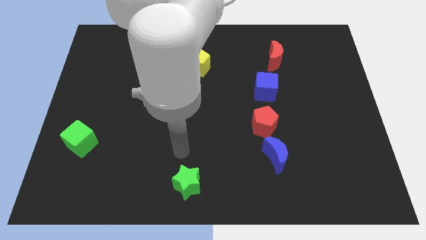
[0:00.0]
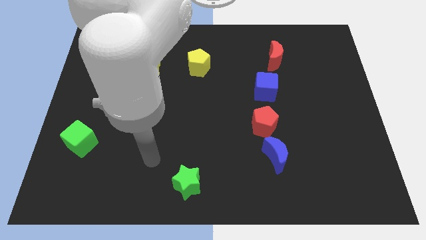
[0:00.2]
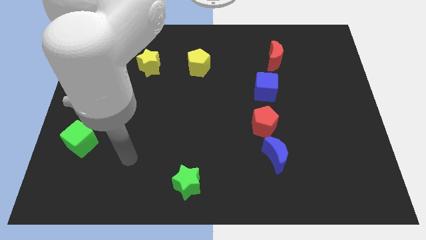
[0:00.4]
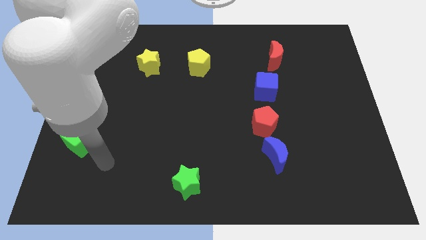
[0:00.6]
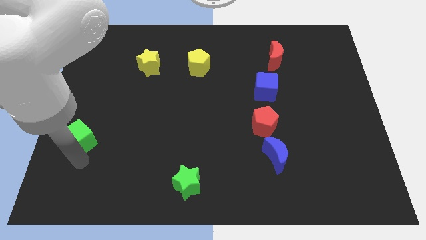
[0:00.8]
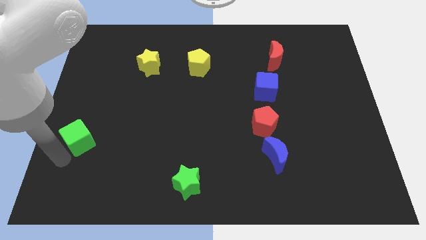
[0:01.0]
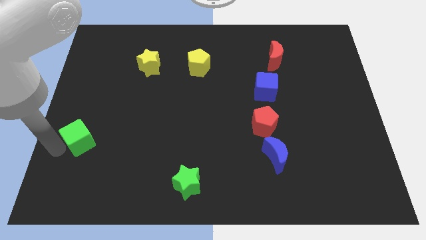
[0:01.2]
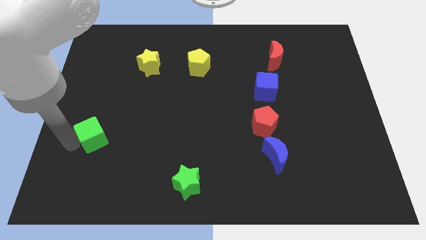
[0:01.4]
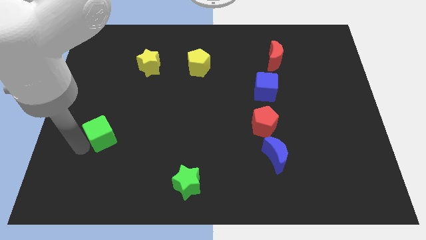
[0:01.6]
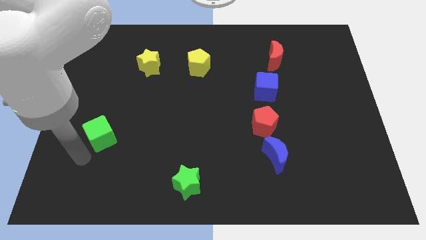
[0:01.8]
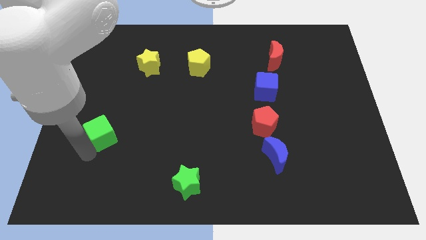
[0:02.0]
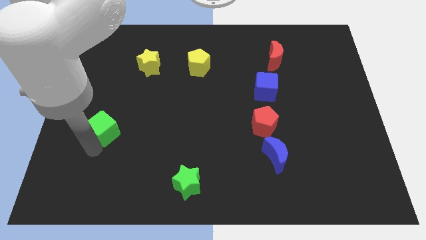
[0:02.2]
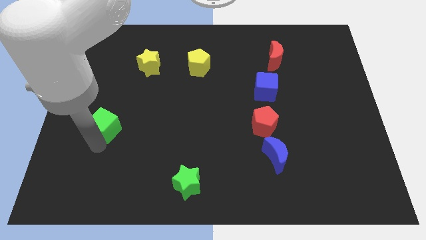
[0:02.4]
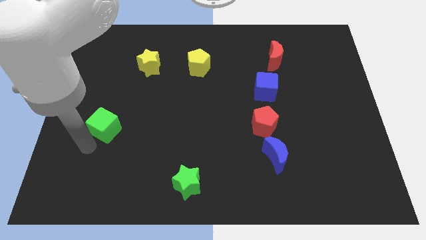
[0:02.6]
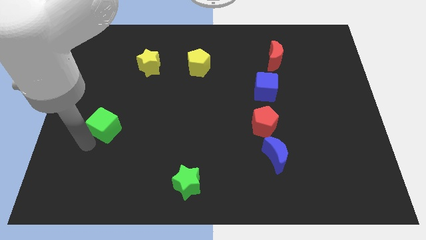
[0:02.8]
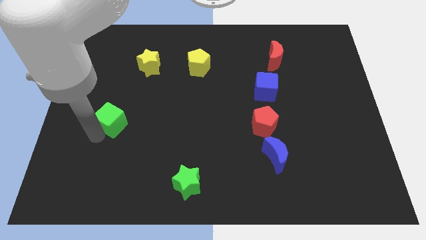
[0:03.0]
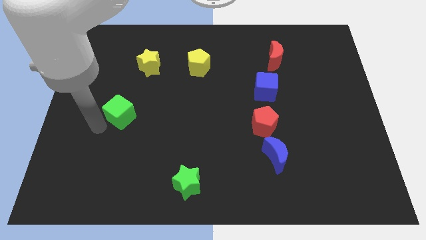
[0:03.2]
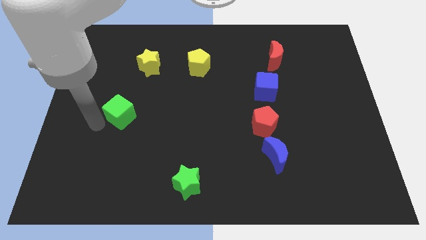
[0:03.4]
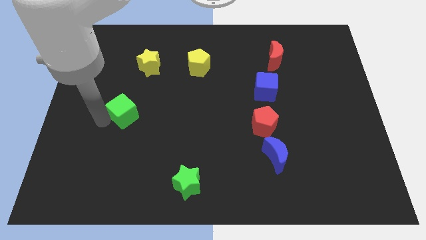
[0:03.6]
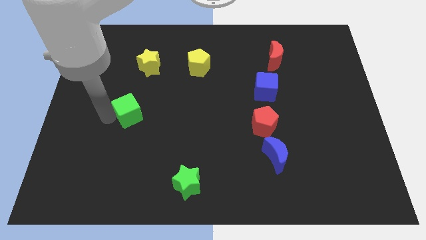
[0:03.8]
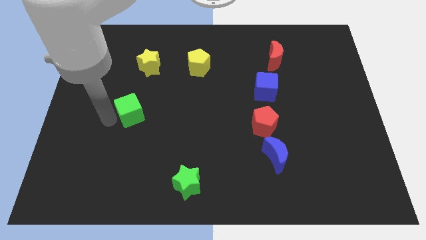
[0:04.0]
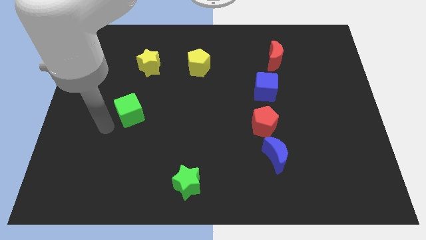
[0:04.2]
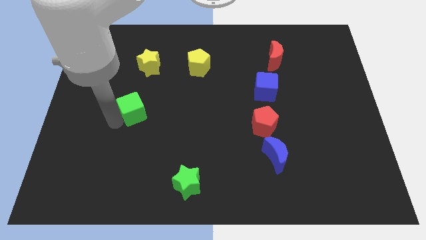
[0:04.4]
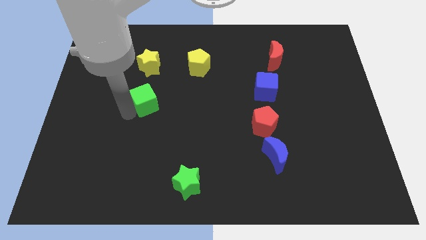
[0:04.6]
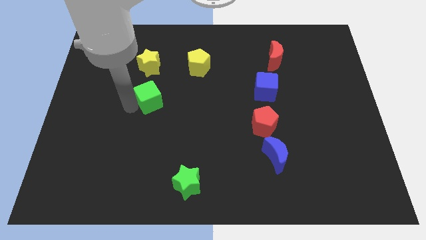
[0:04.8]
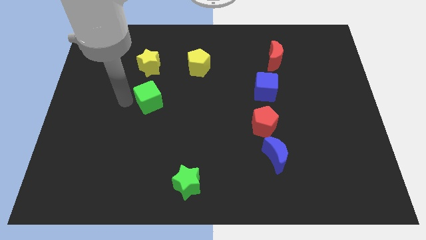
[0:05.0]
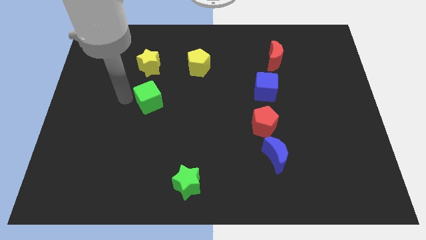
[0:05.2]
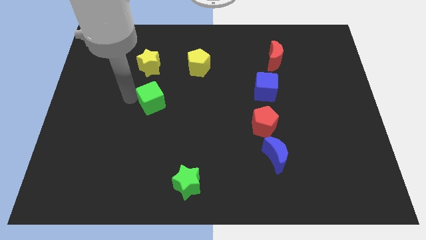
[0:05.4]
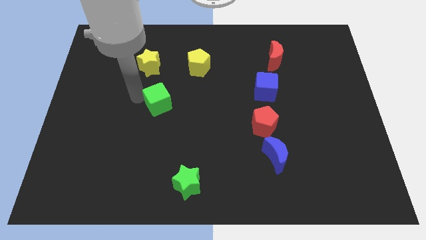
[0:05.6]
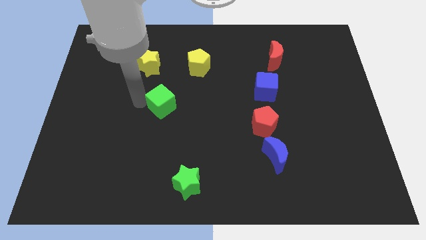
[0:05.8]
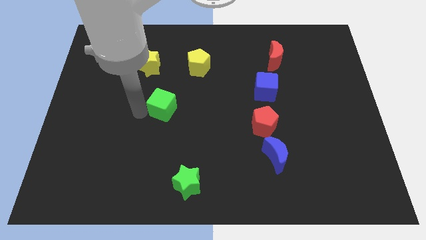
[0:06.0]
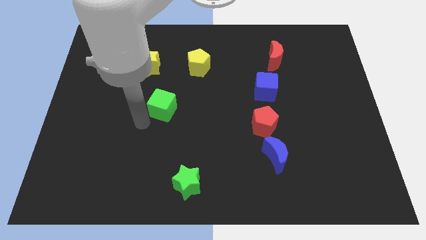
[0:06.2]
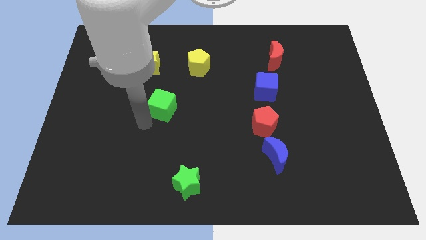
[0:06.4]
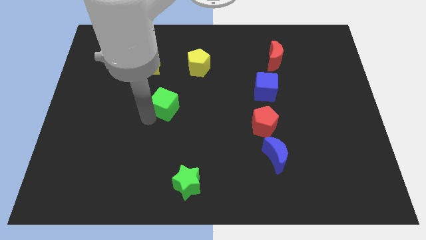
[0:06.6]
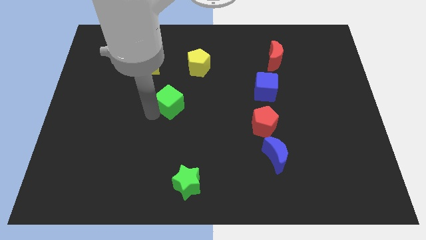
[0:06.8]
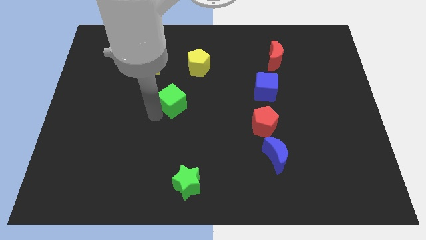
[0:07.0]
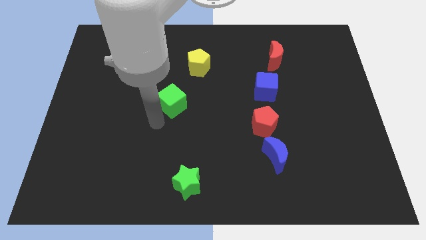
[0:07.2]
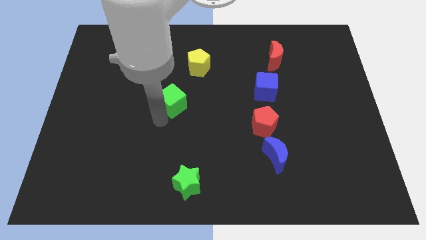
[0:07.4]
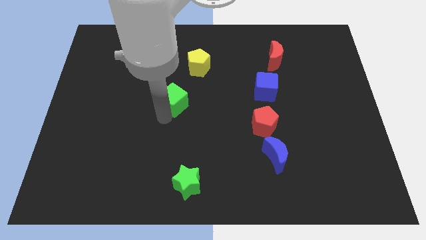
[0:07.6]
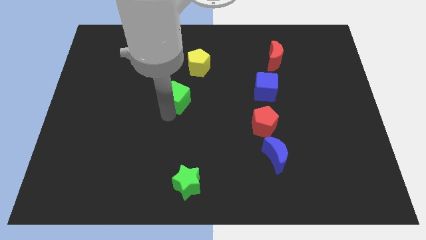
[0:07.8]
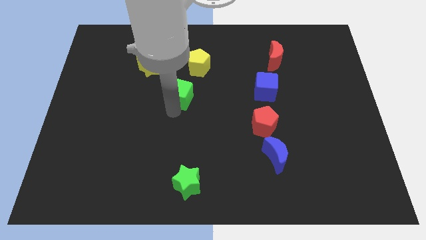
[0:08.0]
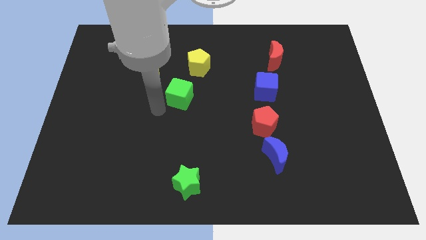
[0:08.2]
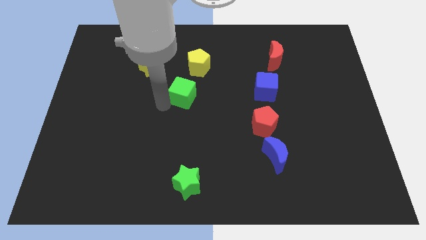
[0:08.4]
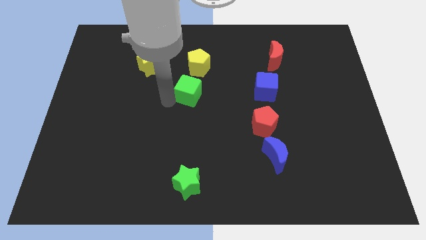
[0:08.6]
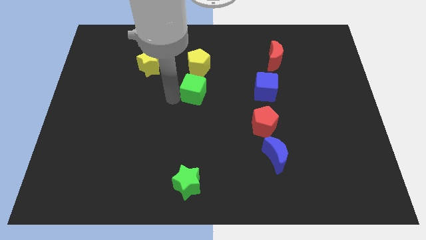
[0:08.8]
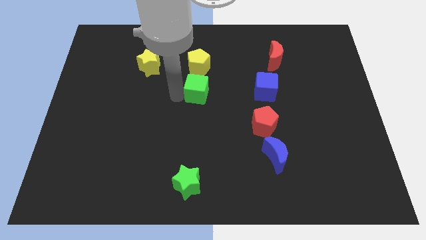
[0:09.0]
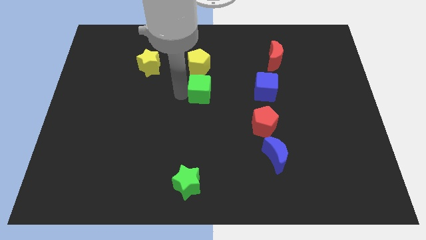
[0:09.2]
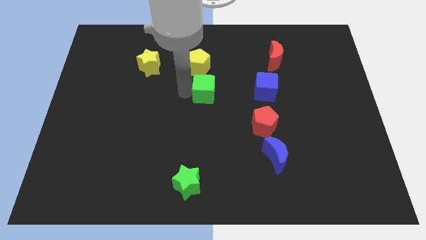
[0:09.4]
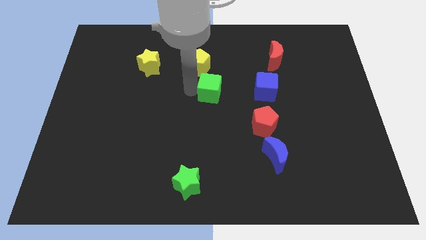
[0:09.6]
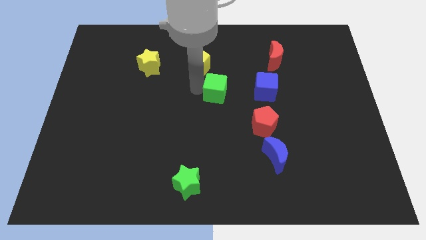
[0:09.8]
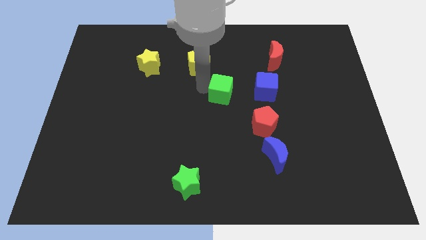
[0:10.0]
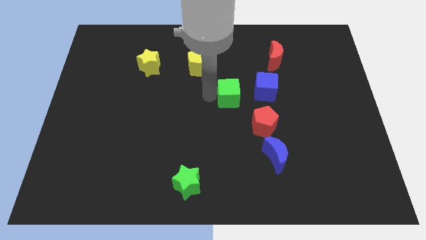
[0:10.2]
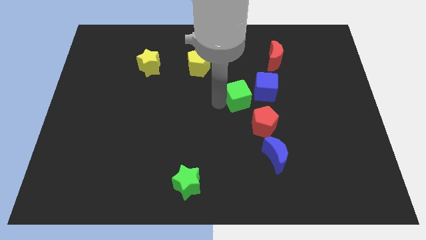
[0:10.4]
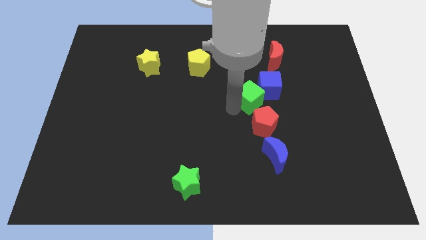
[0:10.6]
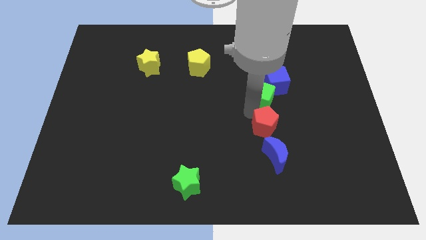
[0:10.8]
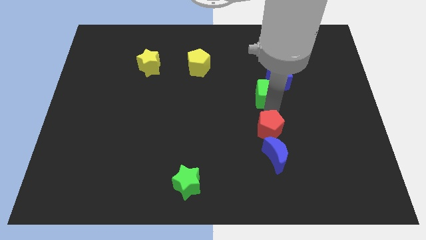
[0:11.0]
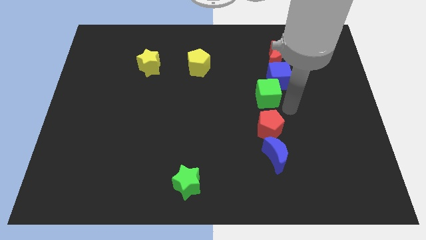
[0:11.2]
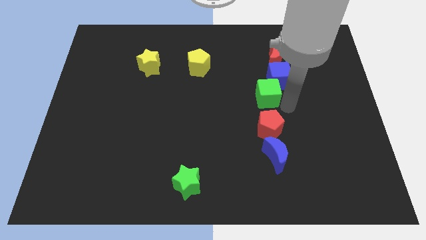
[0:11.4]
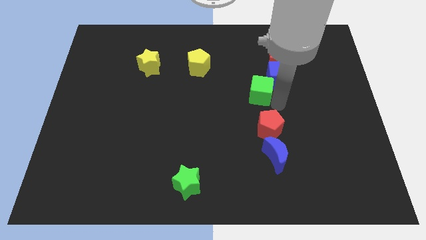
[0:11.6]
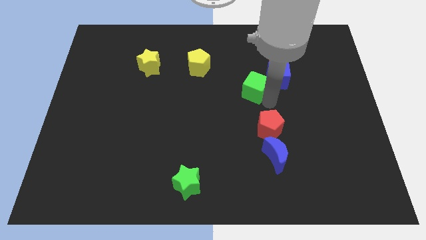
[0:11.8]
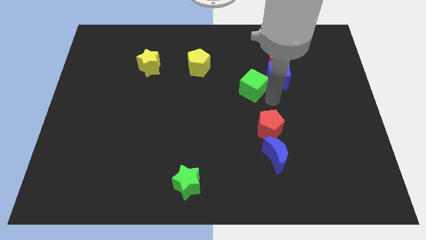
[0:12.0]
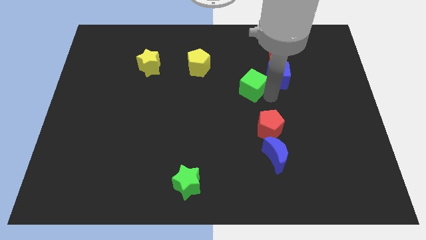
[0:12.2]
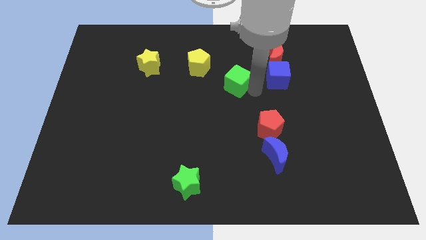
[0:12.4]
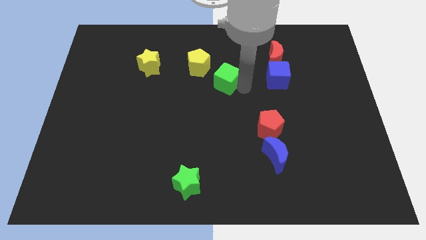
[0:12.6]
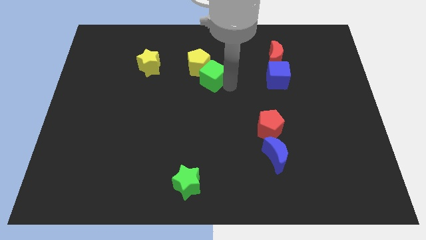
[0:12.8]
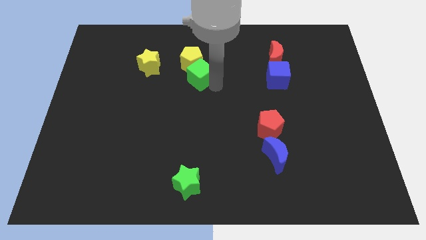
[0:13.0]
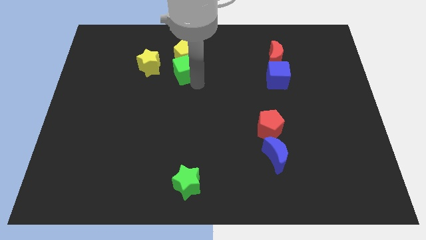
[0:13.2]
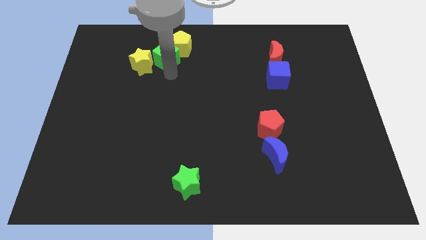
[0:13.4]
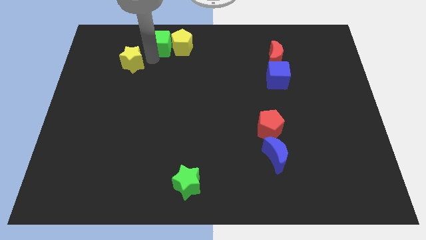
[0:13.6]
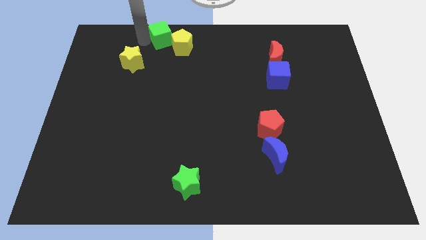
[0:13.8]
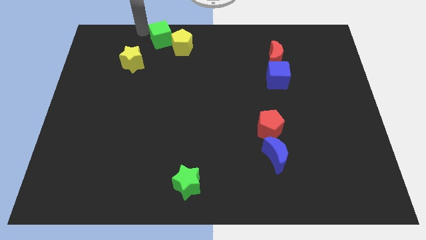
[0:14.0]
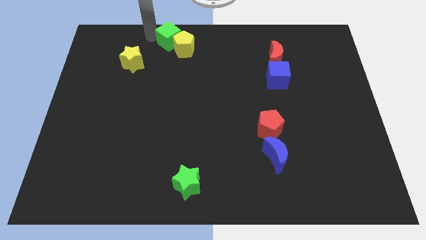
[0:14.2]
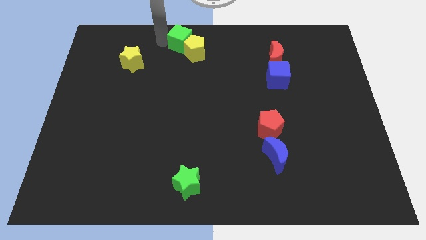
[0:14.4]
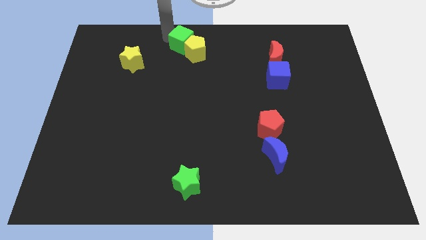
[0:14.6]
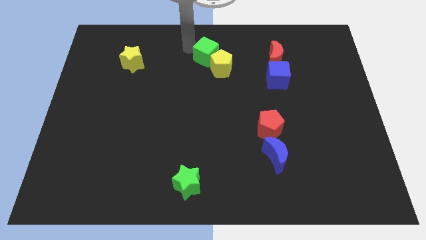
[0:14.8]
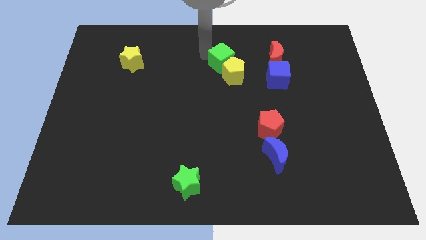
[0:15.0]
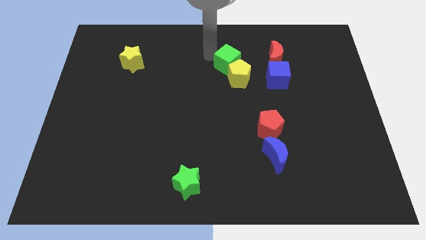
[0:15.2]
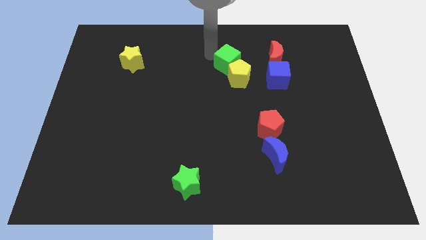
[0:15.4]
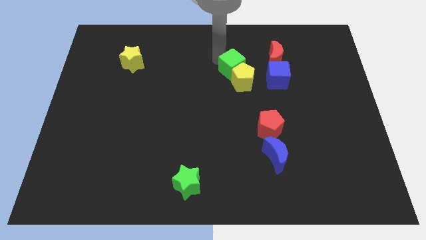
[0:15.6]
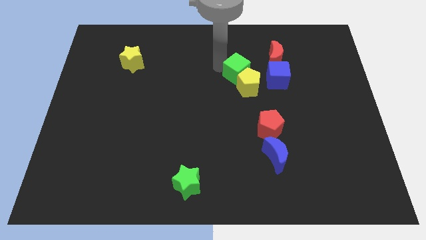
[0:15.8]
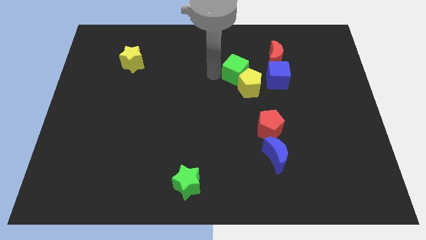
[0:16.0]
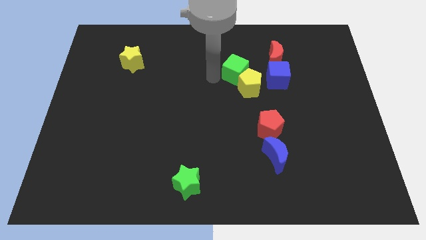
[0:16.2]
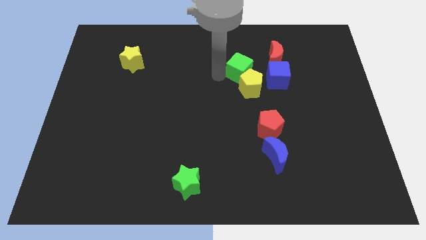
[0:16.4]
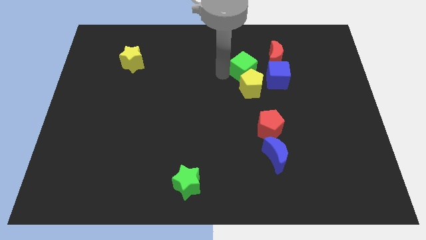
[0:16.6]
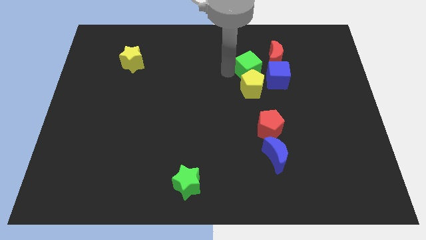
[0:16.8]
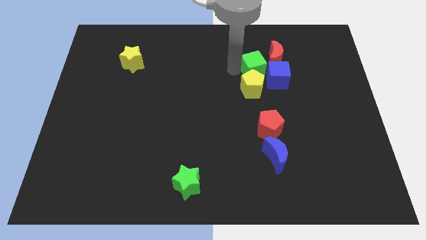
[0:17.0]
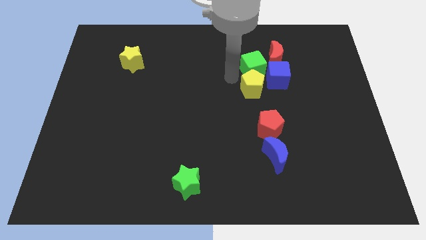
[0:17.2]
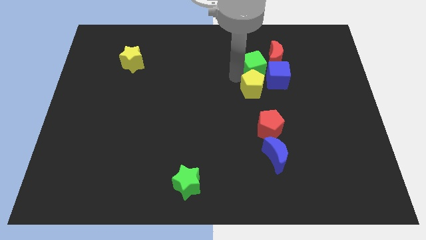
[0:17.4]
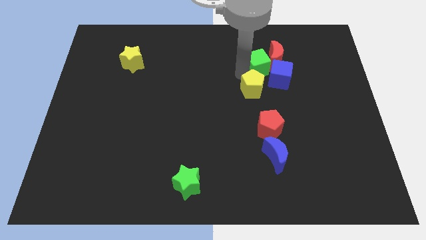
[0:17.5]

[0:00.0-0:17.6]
push the green cube towards the red moon
